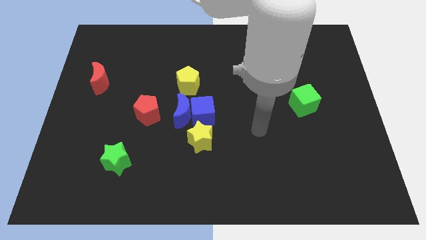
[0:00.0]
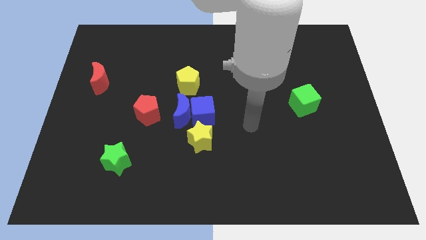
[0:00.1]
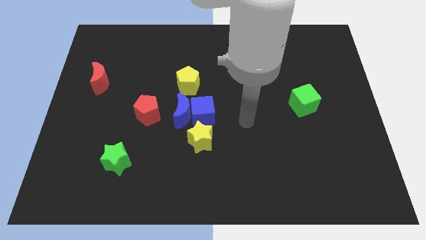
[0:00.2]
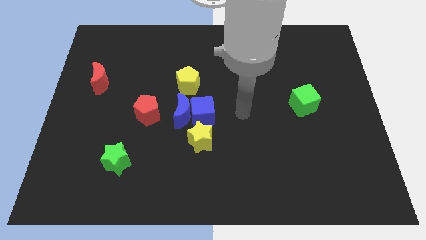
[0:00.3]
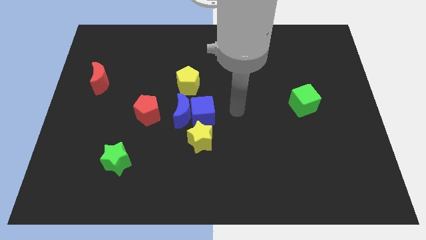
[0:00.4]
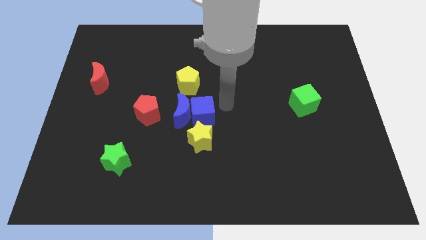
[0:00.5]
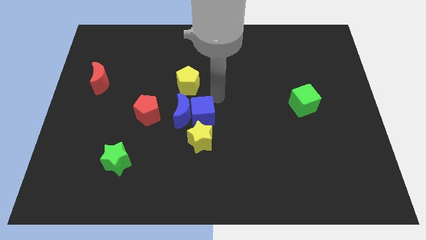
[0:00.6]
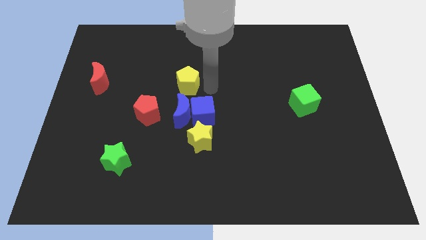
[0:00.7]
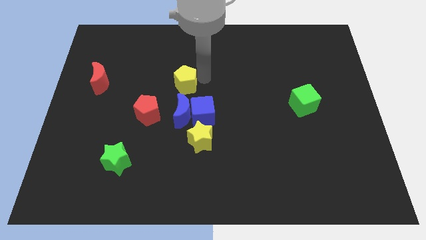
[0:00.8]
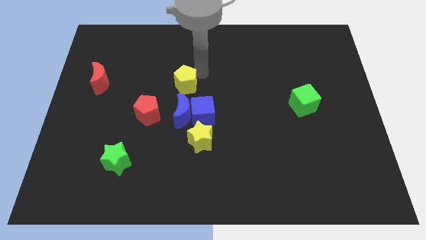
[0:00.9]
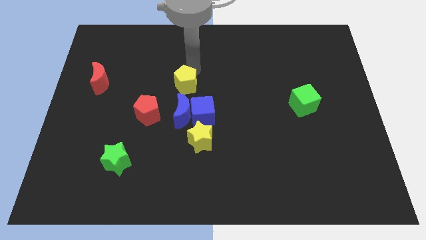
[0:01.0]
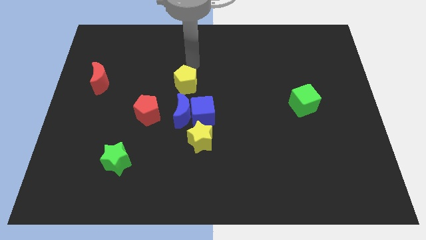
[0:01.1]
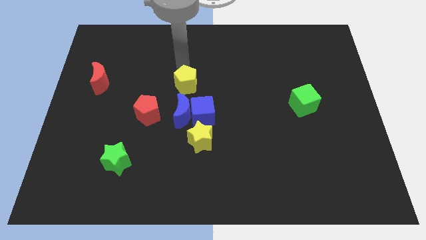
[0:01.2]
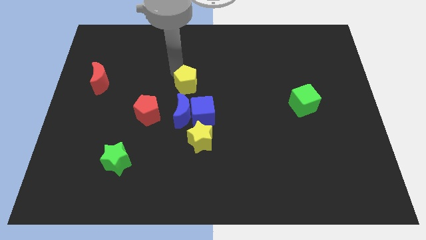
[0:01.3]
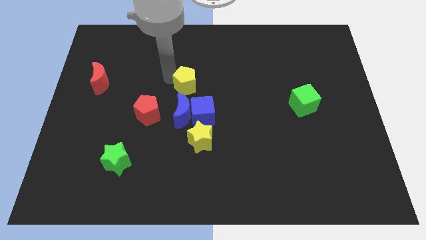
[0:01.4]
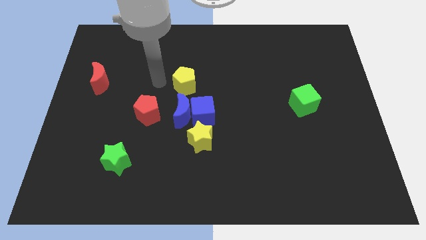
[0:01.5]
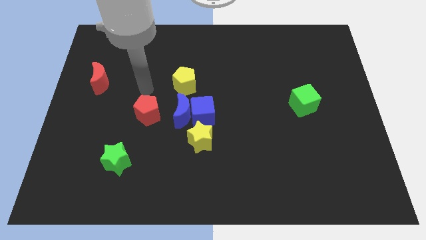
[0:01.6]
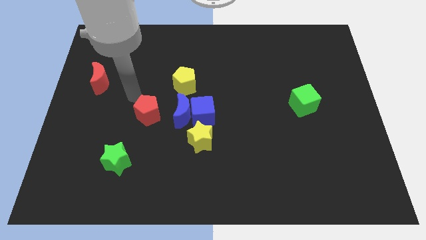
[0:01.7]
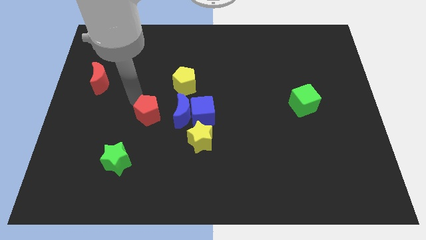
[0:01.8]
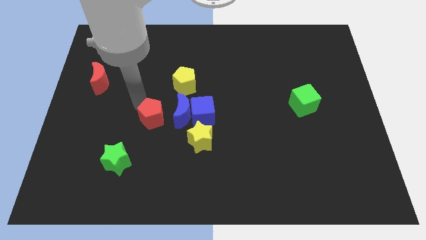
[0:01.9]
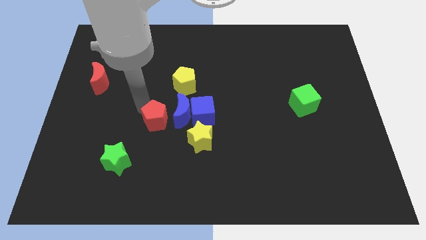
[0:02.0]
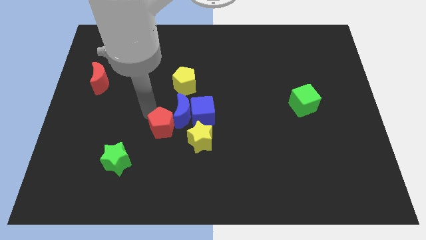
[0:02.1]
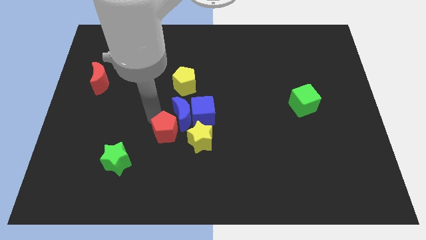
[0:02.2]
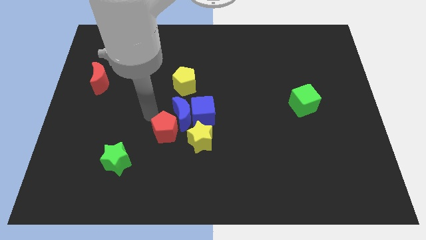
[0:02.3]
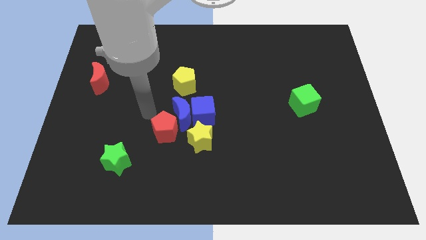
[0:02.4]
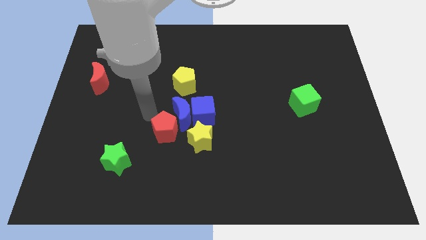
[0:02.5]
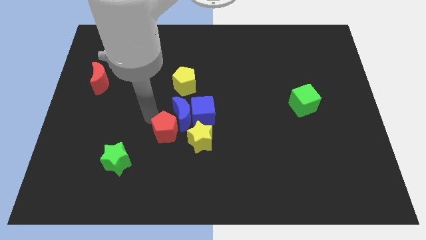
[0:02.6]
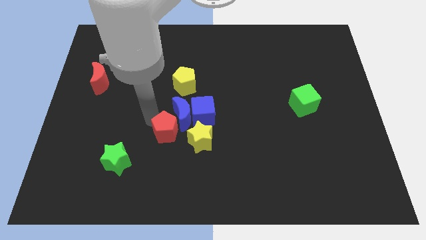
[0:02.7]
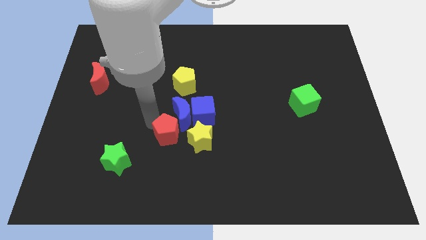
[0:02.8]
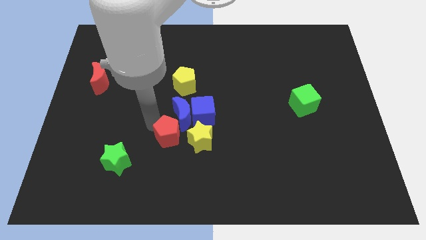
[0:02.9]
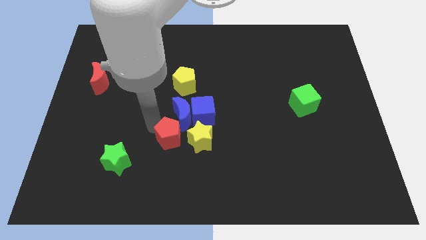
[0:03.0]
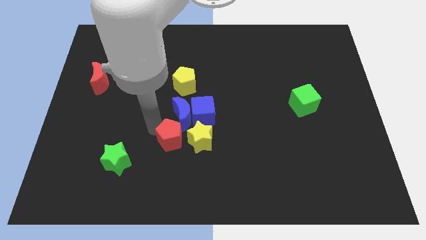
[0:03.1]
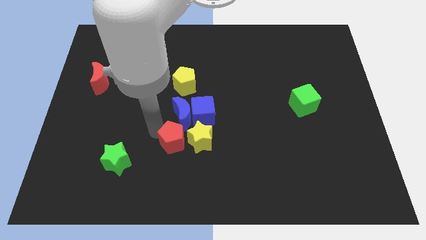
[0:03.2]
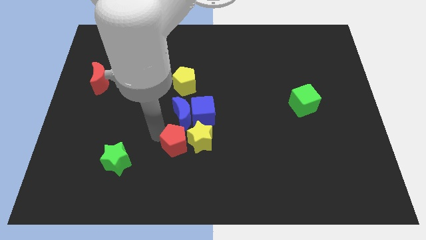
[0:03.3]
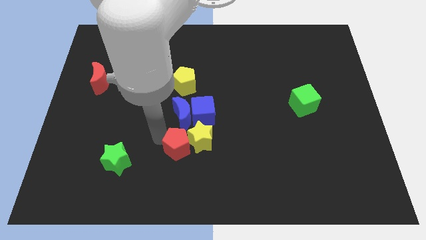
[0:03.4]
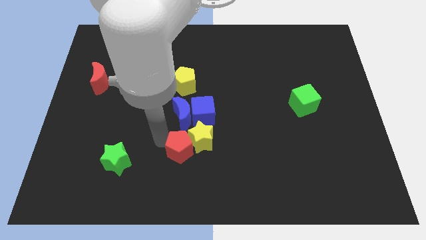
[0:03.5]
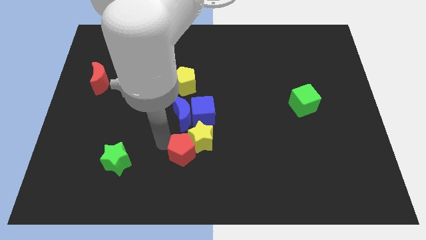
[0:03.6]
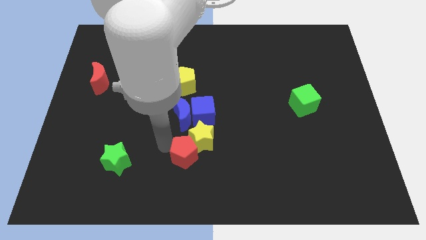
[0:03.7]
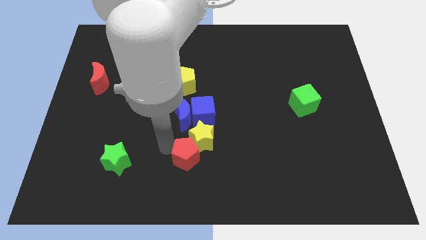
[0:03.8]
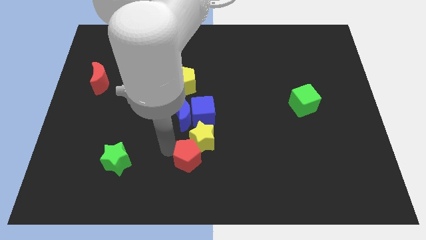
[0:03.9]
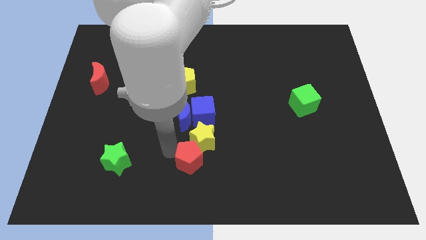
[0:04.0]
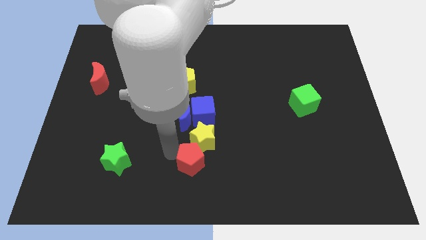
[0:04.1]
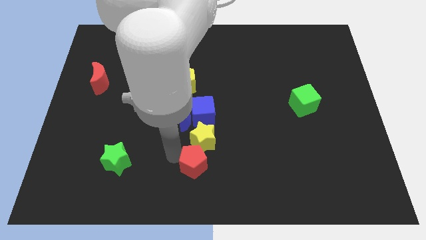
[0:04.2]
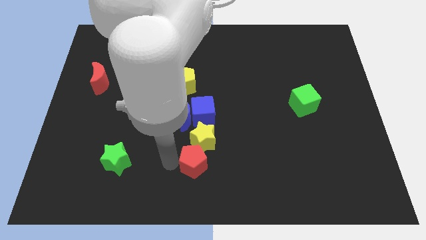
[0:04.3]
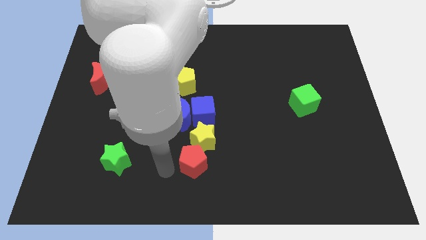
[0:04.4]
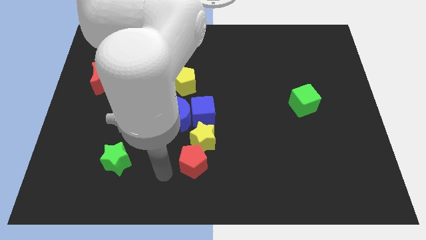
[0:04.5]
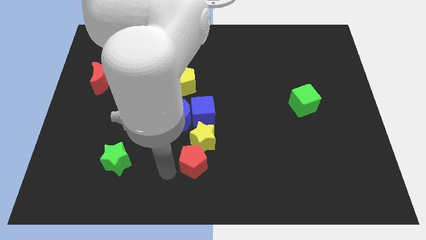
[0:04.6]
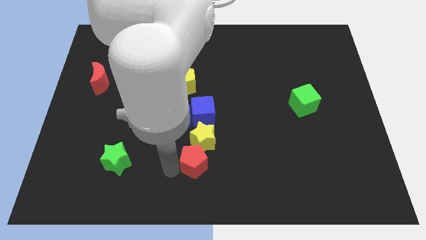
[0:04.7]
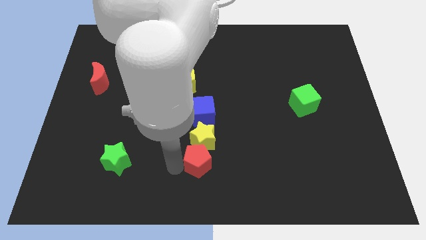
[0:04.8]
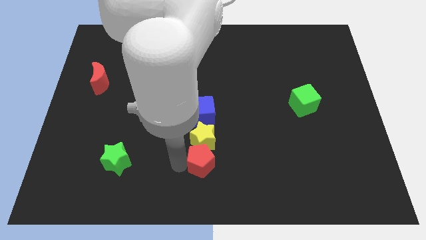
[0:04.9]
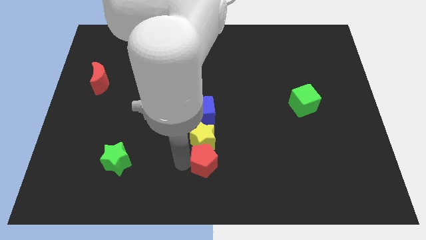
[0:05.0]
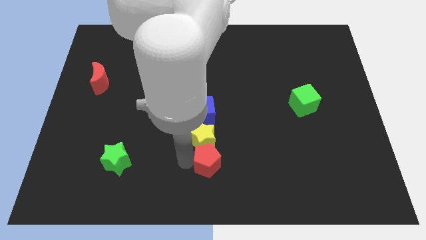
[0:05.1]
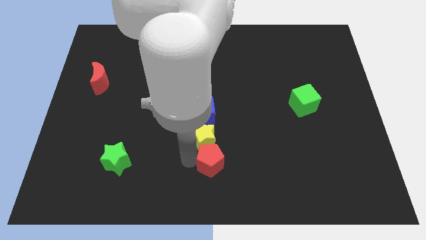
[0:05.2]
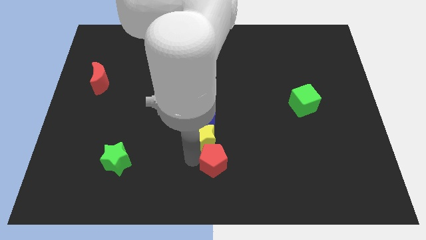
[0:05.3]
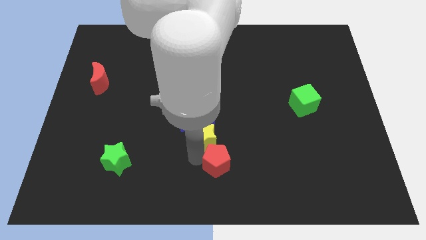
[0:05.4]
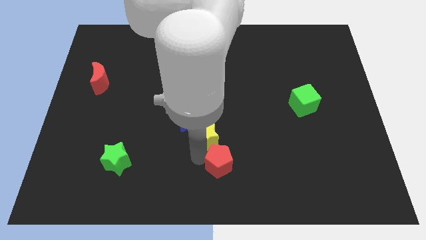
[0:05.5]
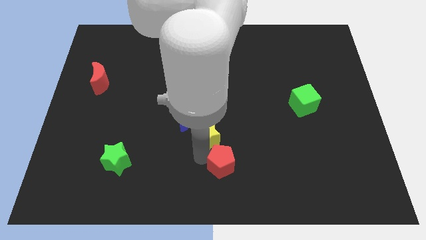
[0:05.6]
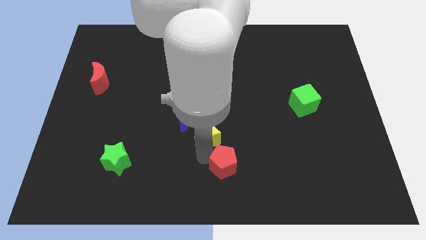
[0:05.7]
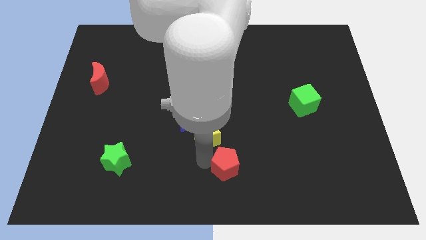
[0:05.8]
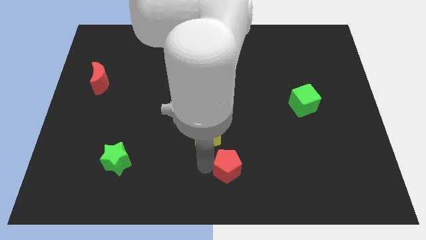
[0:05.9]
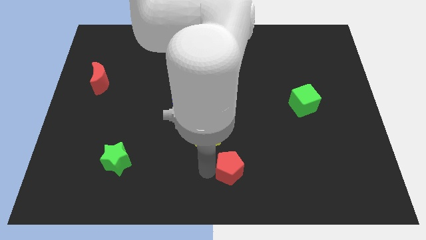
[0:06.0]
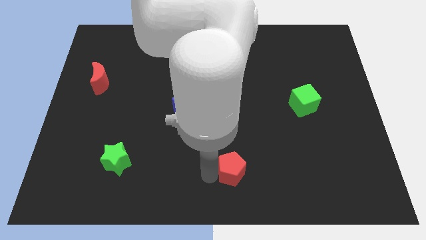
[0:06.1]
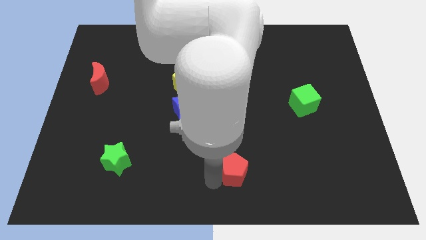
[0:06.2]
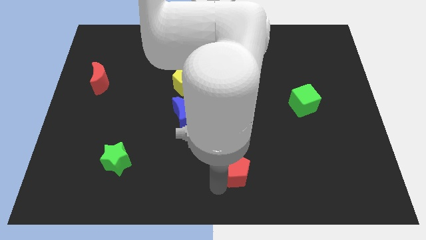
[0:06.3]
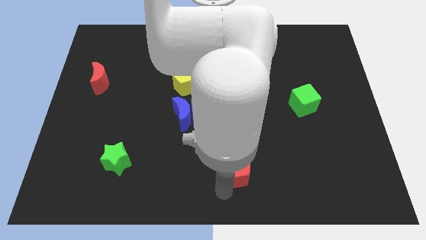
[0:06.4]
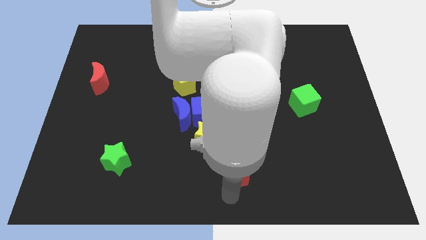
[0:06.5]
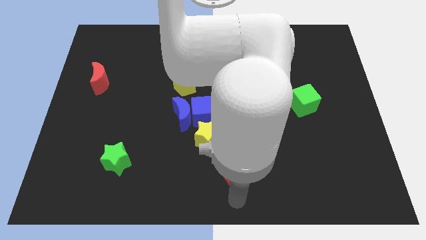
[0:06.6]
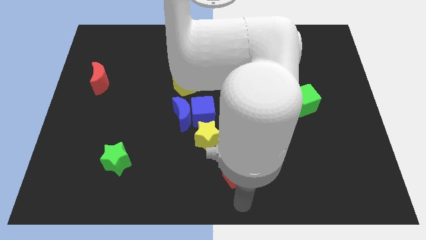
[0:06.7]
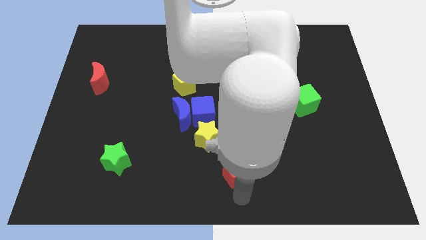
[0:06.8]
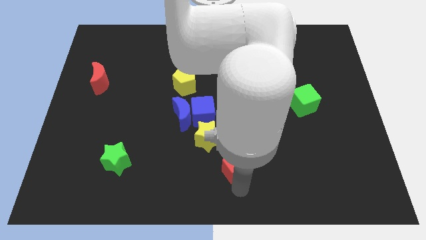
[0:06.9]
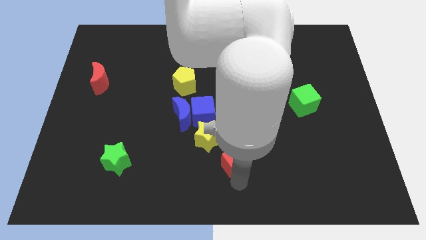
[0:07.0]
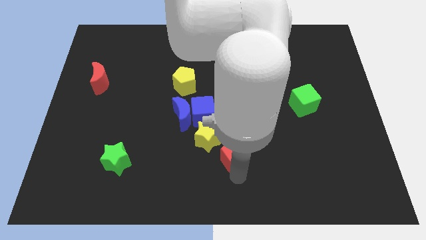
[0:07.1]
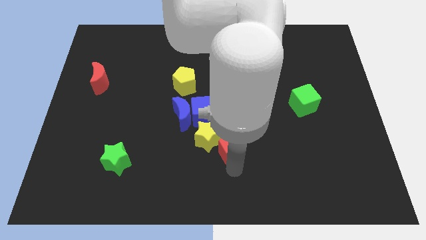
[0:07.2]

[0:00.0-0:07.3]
move the red pentagon right of the yellow star
